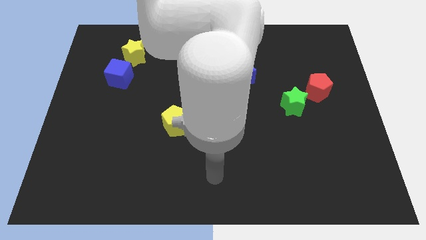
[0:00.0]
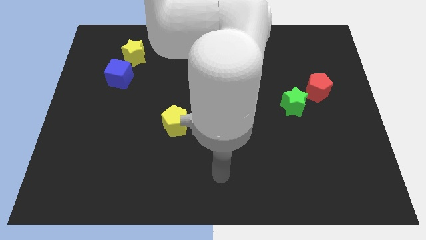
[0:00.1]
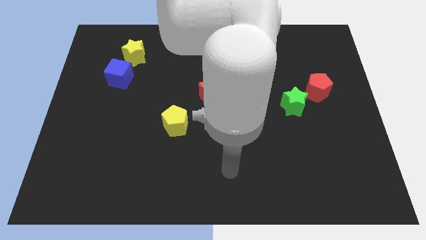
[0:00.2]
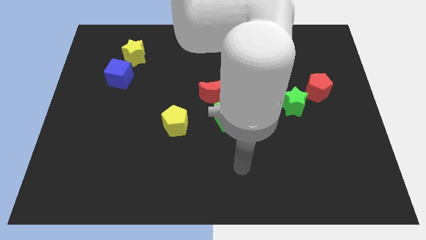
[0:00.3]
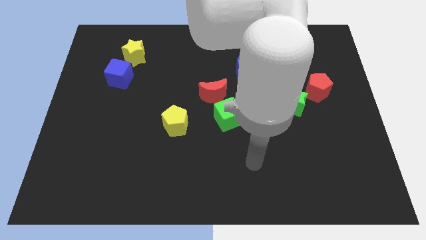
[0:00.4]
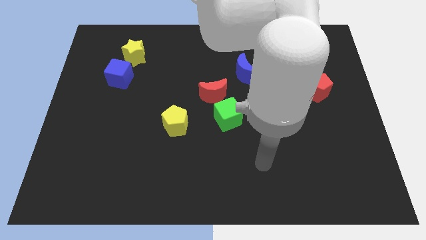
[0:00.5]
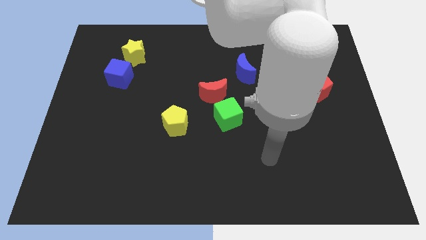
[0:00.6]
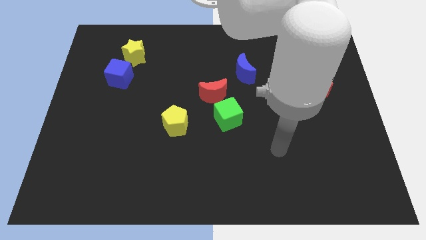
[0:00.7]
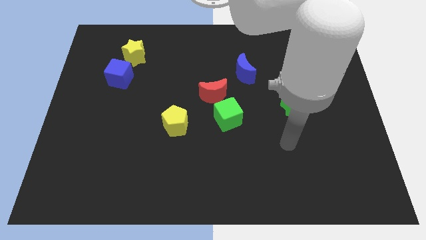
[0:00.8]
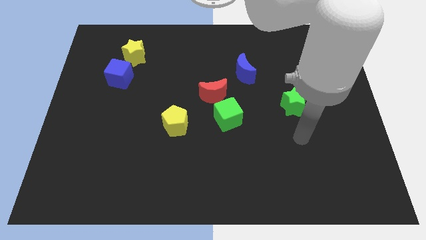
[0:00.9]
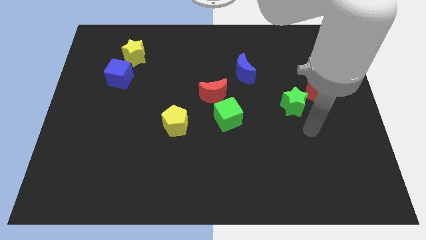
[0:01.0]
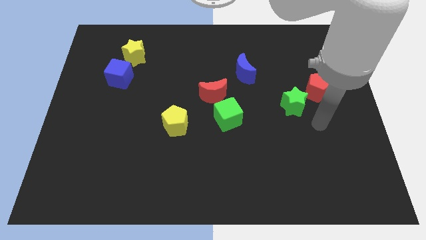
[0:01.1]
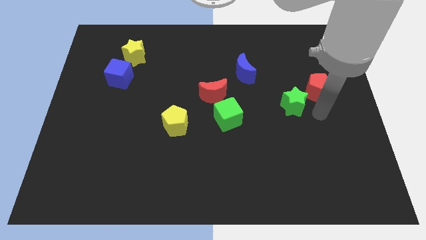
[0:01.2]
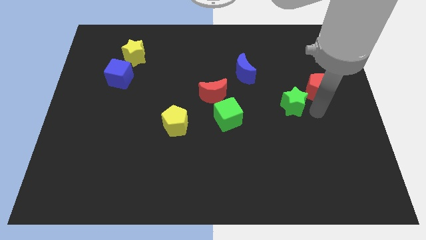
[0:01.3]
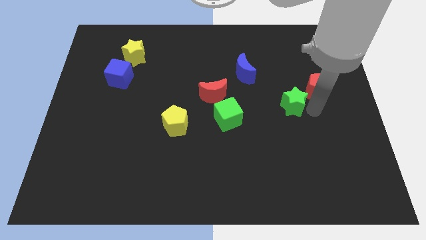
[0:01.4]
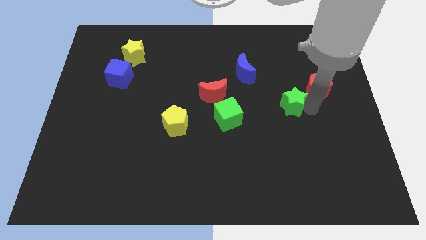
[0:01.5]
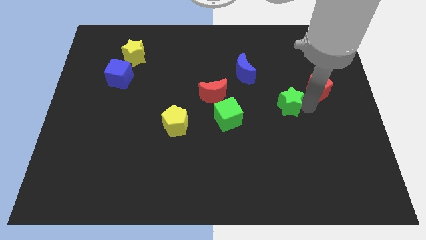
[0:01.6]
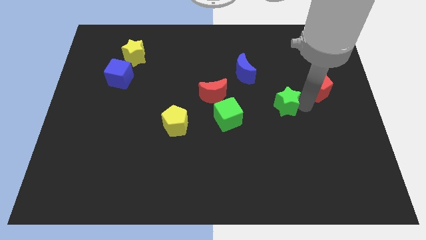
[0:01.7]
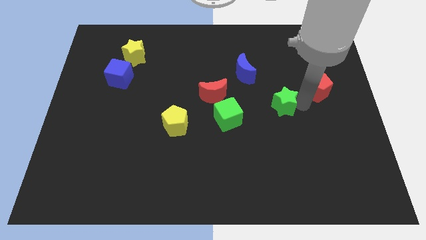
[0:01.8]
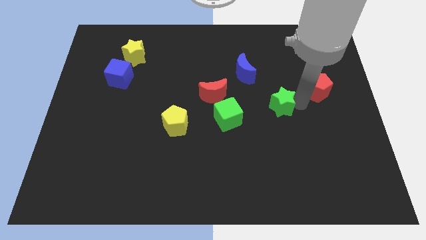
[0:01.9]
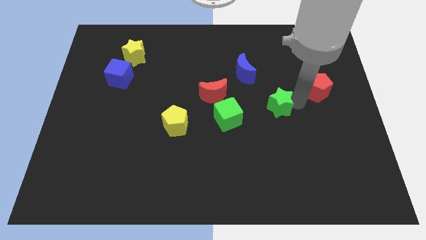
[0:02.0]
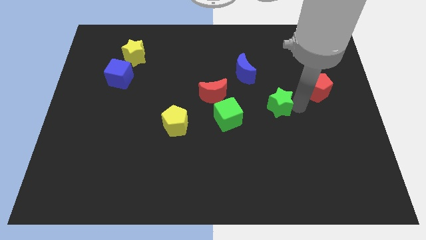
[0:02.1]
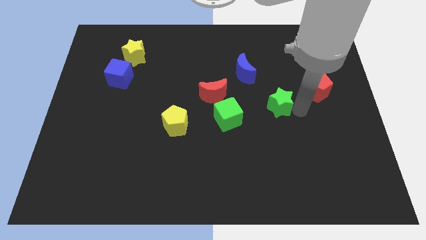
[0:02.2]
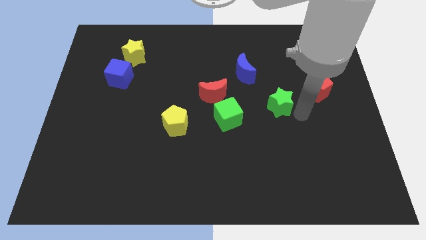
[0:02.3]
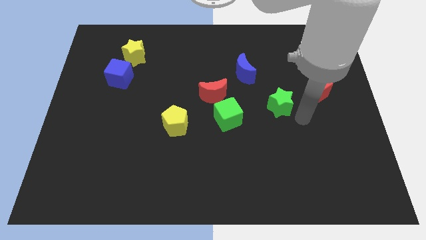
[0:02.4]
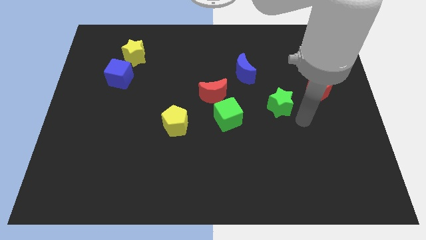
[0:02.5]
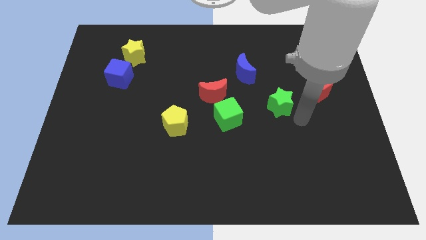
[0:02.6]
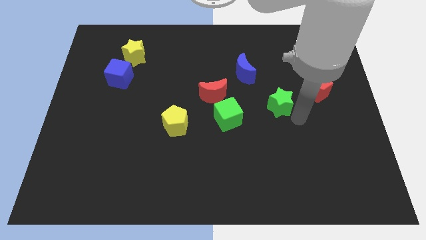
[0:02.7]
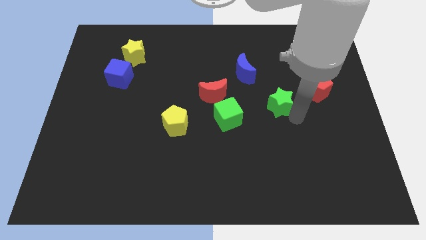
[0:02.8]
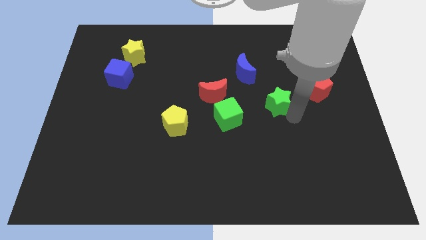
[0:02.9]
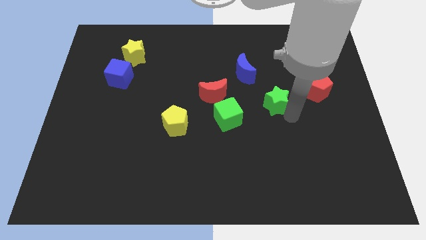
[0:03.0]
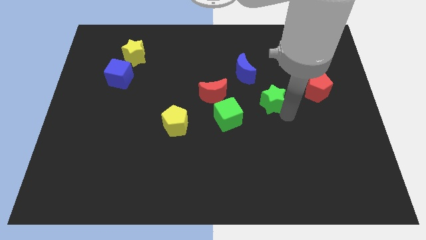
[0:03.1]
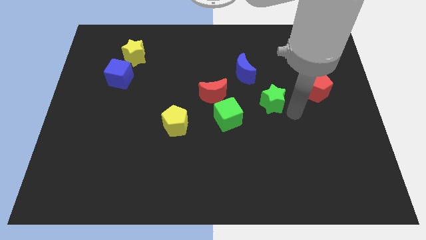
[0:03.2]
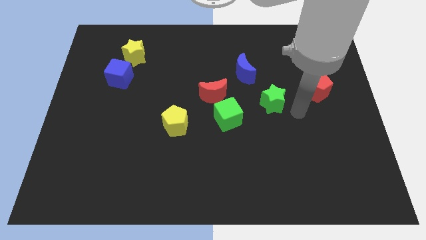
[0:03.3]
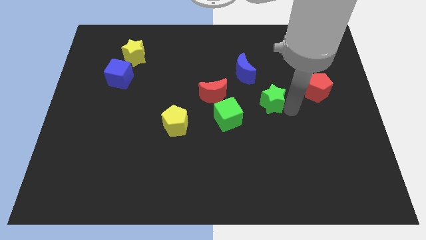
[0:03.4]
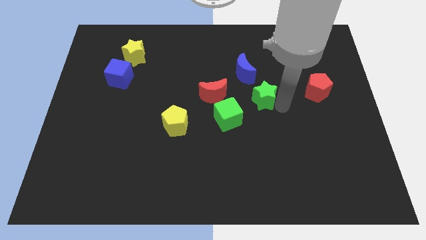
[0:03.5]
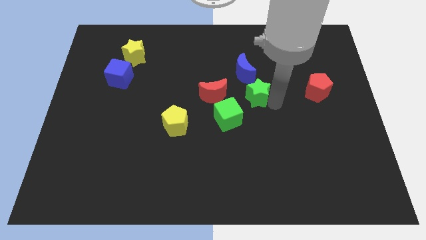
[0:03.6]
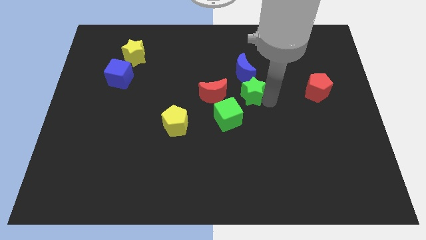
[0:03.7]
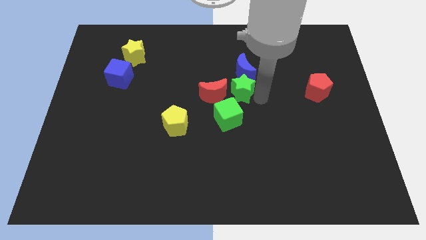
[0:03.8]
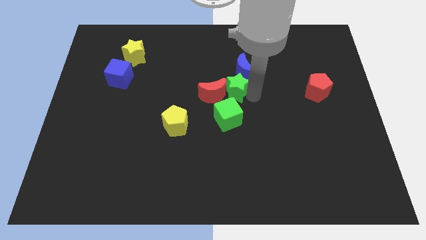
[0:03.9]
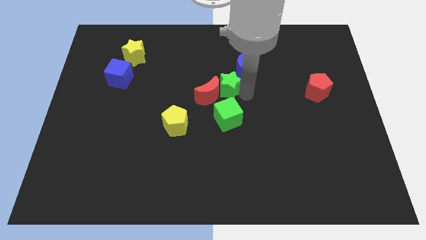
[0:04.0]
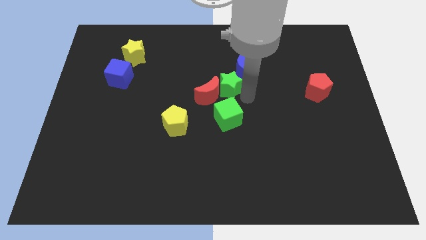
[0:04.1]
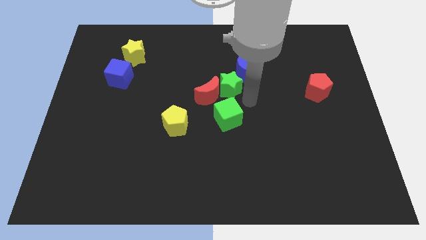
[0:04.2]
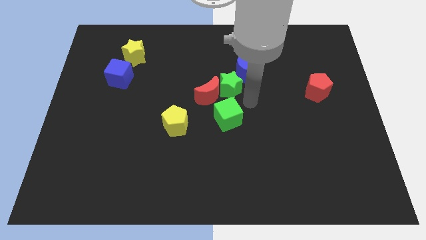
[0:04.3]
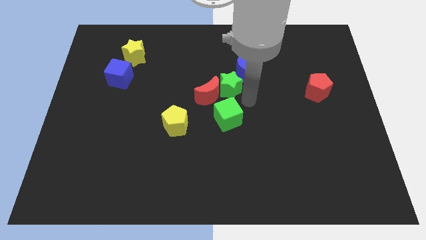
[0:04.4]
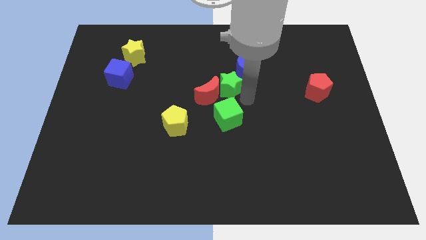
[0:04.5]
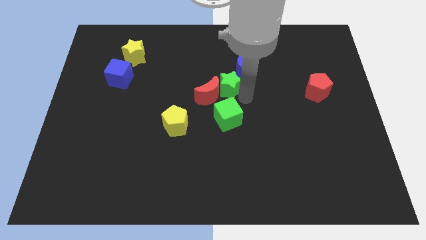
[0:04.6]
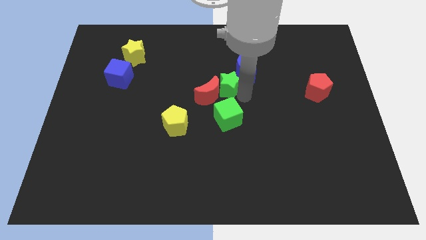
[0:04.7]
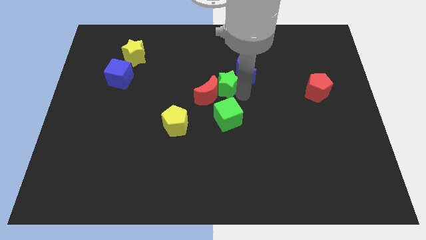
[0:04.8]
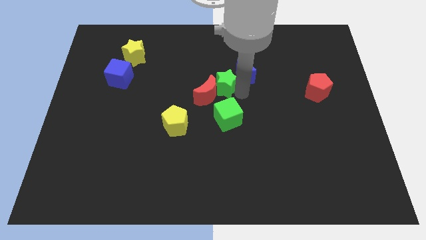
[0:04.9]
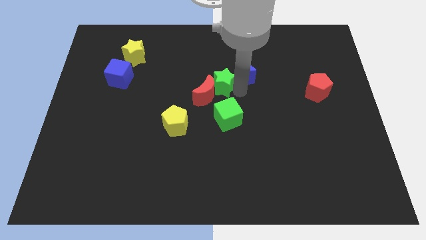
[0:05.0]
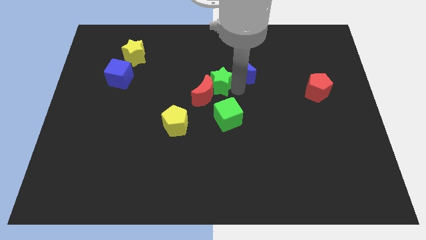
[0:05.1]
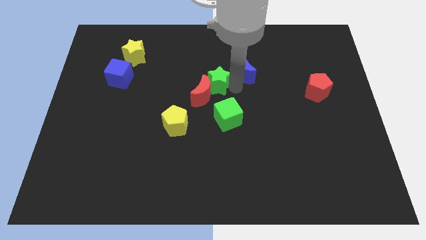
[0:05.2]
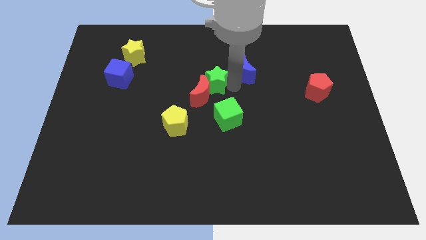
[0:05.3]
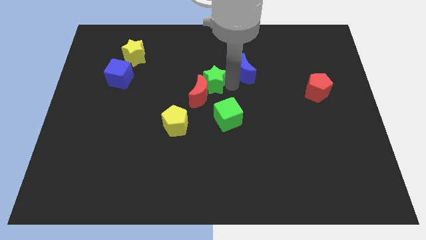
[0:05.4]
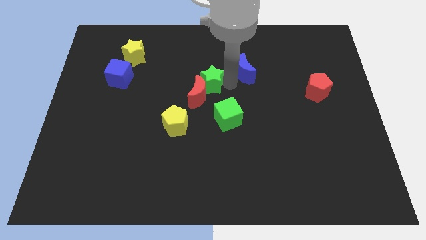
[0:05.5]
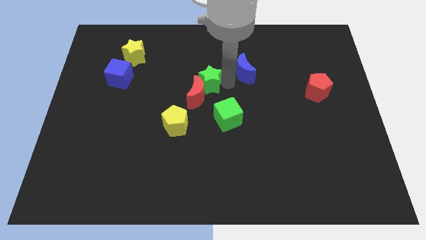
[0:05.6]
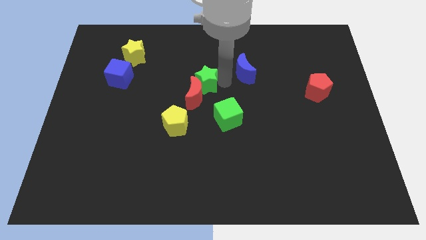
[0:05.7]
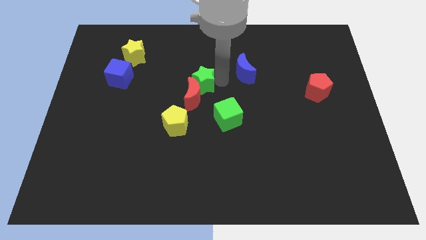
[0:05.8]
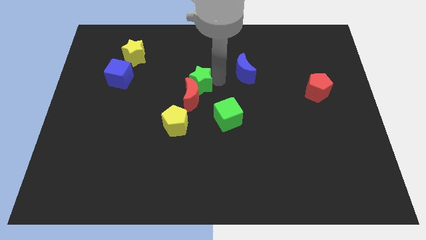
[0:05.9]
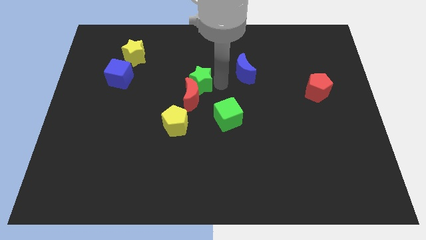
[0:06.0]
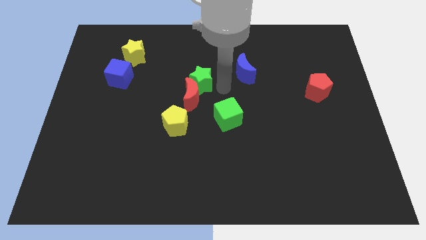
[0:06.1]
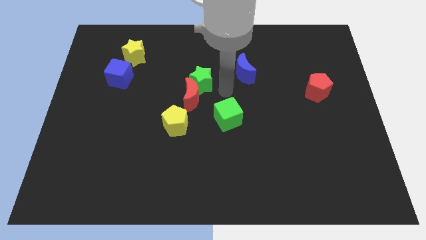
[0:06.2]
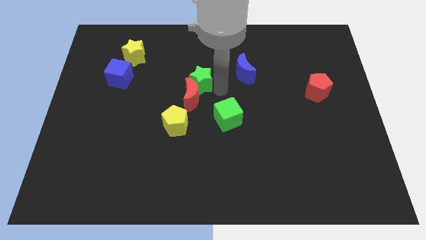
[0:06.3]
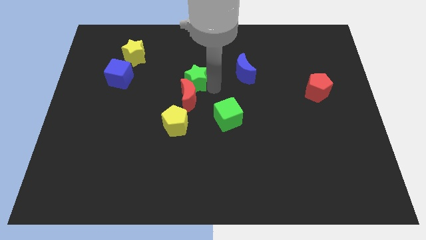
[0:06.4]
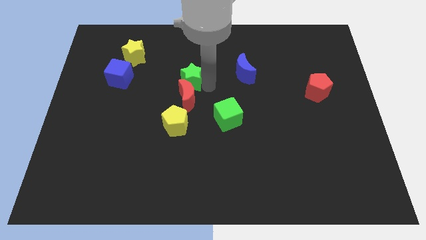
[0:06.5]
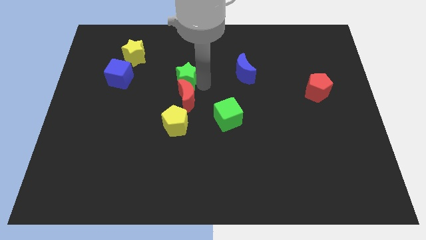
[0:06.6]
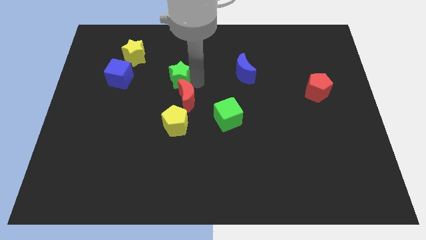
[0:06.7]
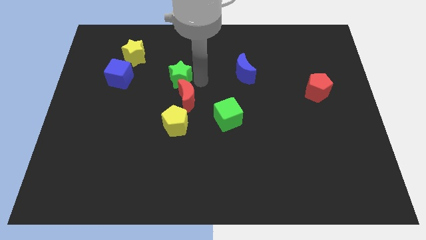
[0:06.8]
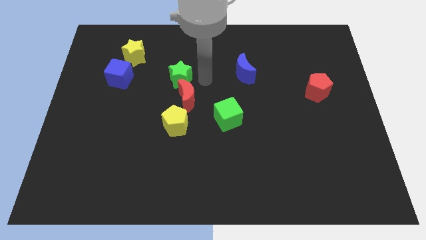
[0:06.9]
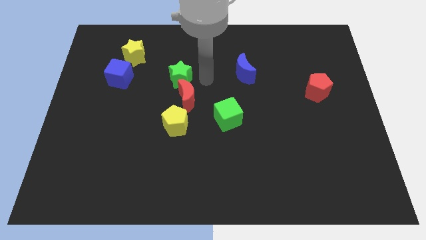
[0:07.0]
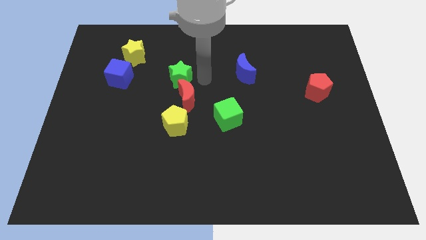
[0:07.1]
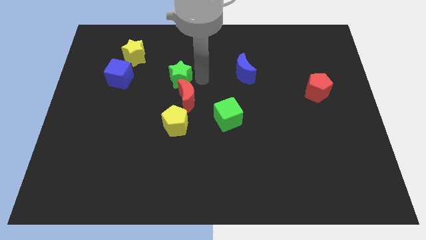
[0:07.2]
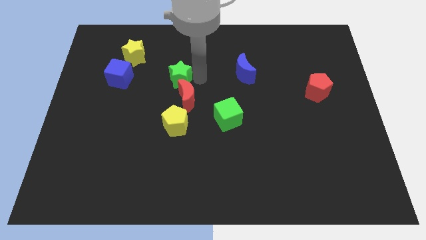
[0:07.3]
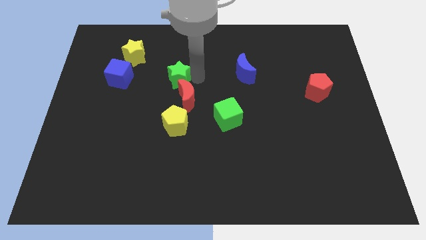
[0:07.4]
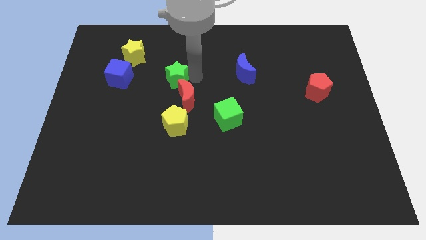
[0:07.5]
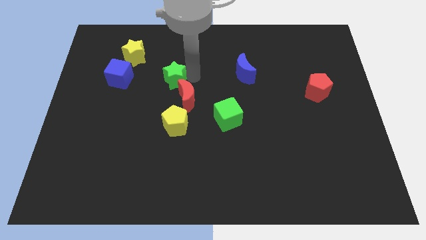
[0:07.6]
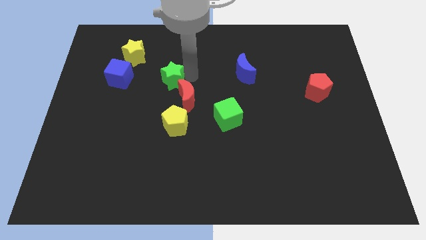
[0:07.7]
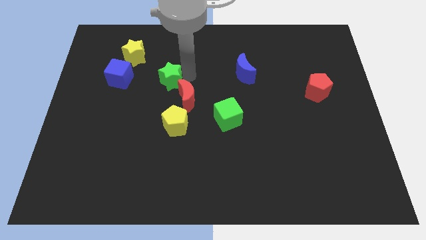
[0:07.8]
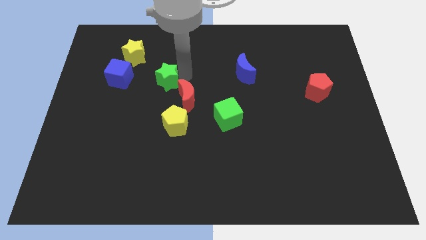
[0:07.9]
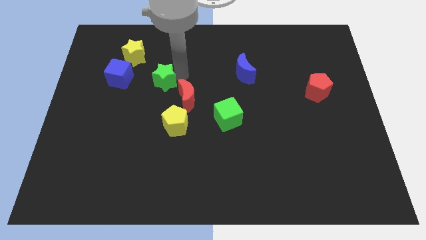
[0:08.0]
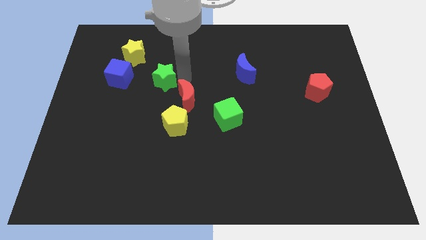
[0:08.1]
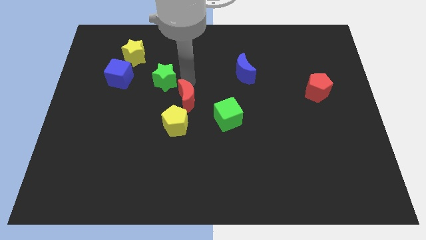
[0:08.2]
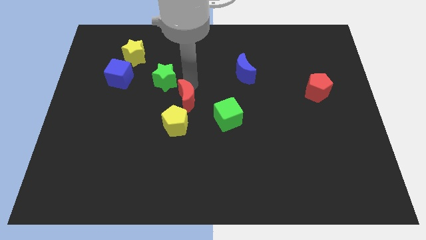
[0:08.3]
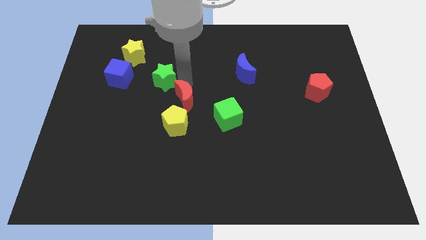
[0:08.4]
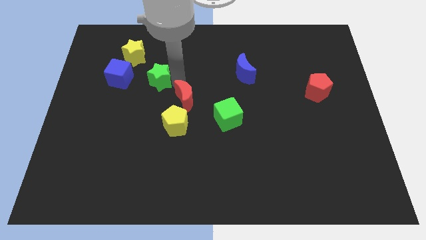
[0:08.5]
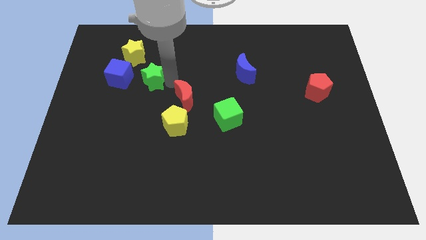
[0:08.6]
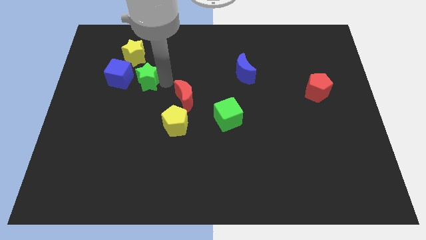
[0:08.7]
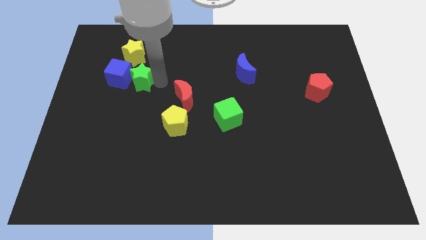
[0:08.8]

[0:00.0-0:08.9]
put the green star next to the blue cube
